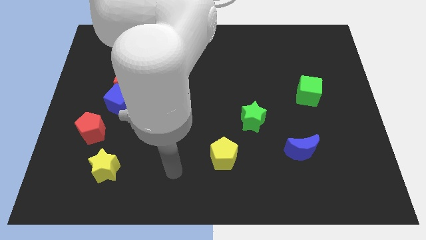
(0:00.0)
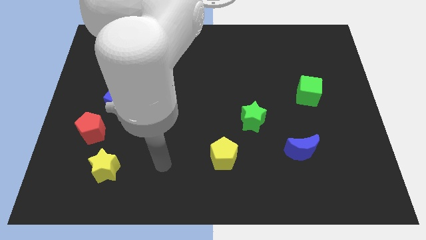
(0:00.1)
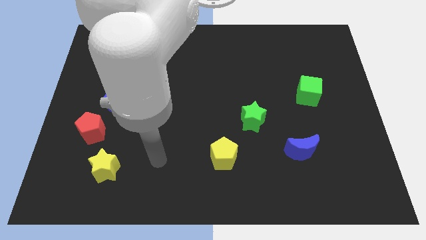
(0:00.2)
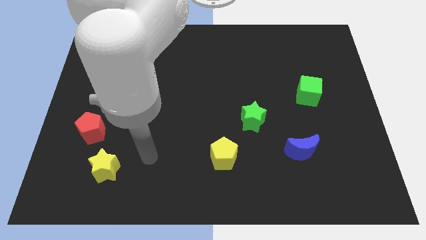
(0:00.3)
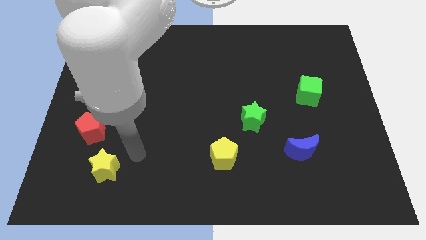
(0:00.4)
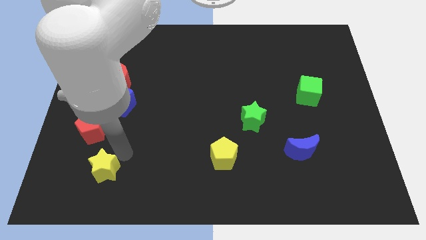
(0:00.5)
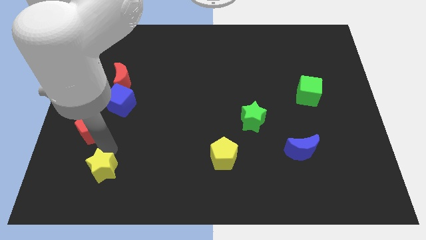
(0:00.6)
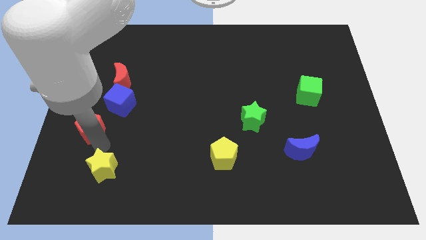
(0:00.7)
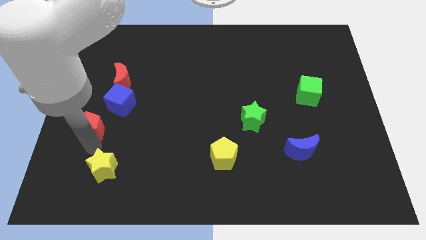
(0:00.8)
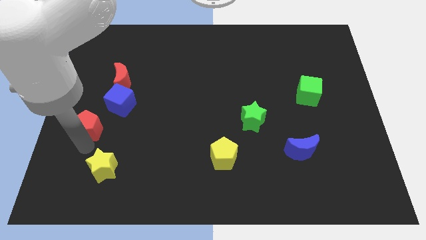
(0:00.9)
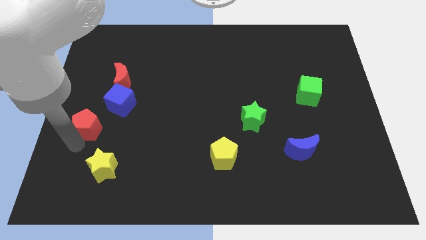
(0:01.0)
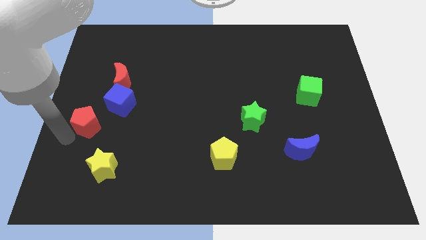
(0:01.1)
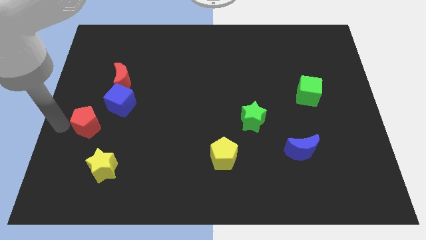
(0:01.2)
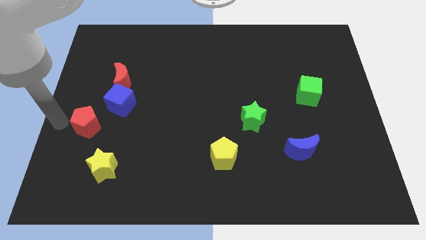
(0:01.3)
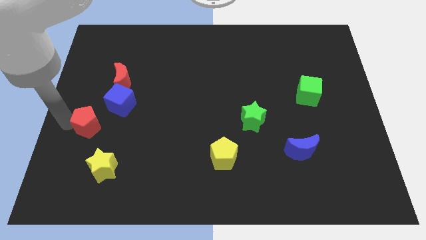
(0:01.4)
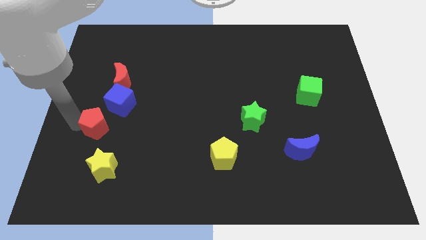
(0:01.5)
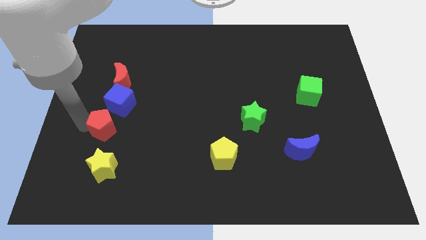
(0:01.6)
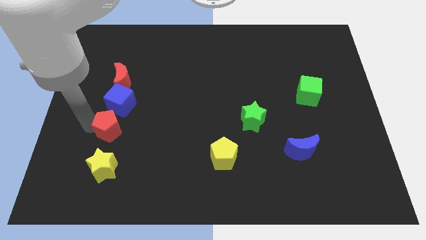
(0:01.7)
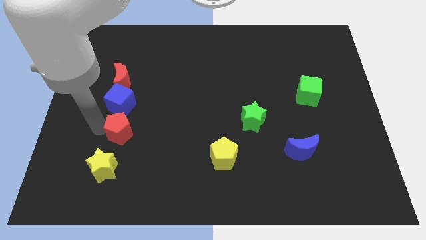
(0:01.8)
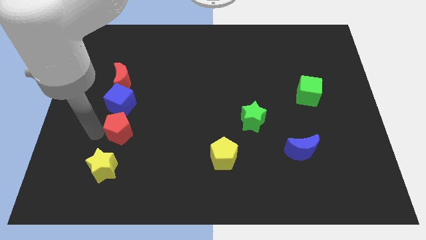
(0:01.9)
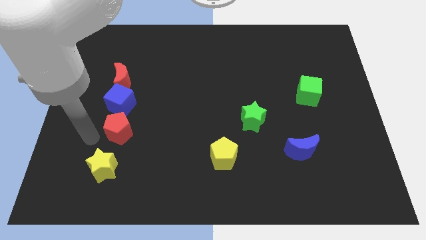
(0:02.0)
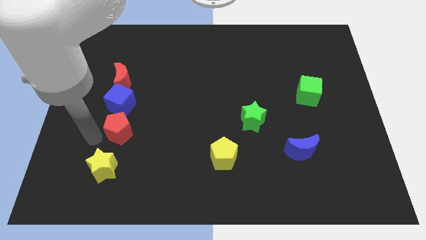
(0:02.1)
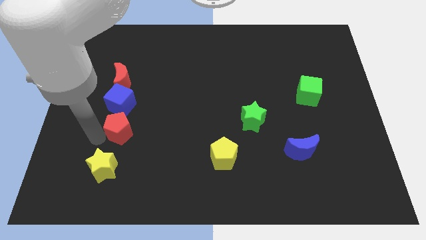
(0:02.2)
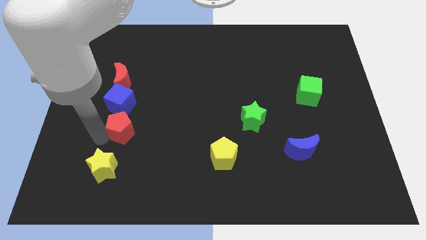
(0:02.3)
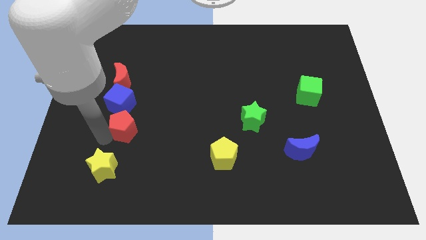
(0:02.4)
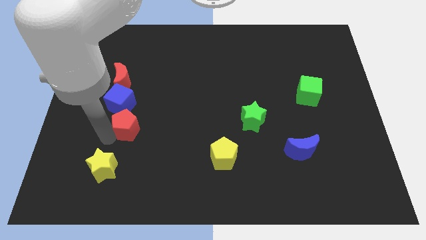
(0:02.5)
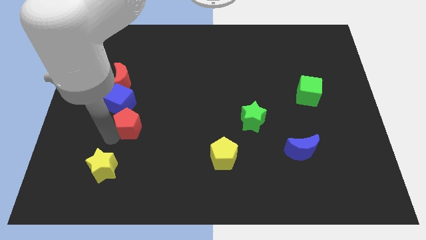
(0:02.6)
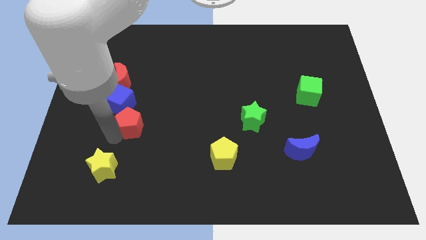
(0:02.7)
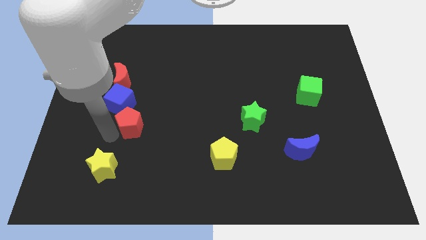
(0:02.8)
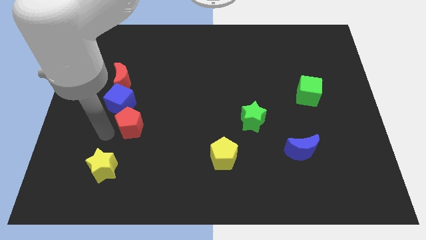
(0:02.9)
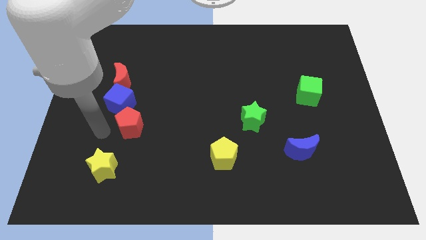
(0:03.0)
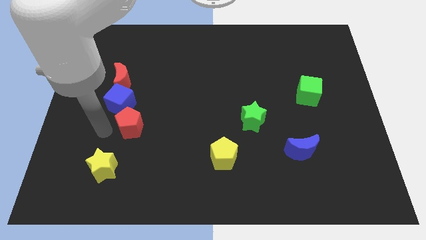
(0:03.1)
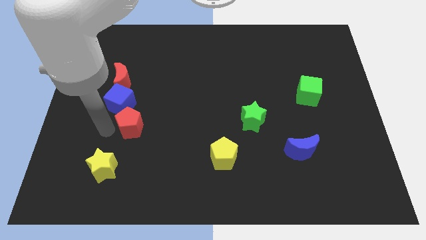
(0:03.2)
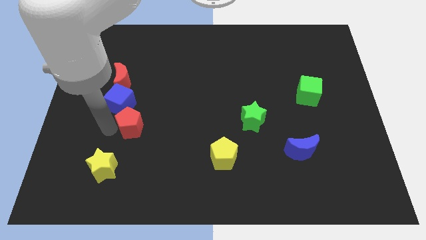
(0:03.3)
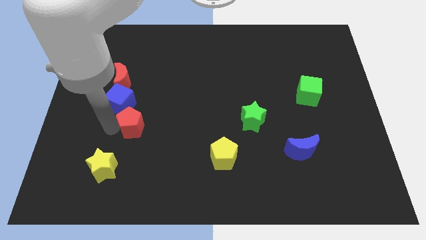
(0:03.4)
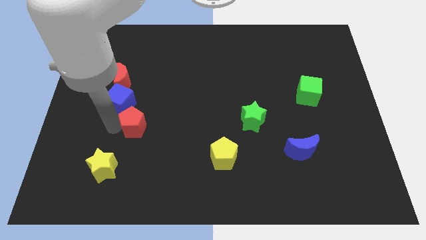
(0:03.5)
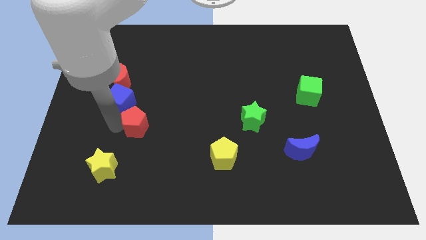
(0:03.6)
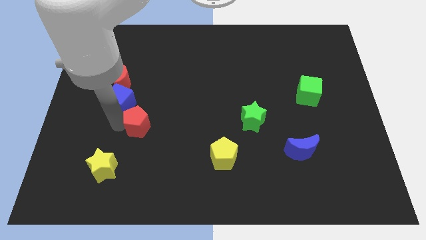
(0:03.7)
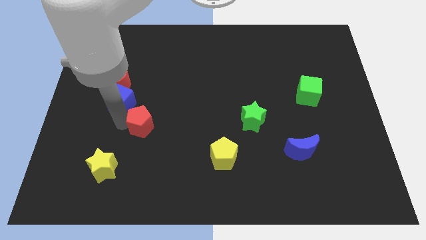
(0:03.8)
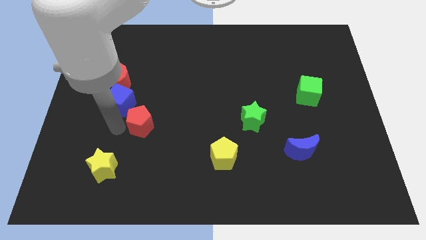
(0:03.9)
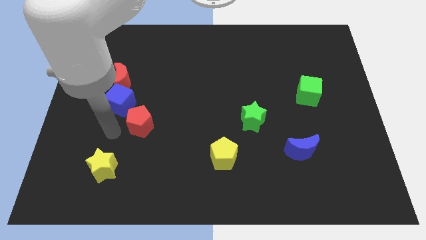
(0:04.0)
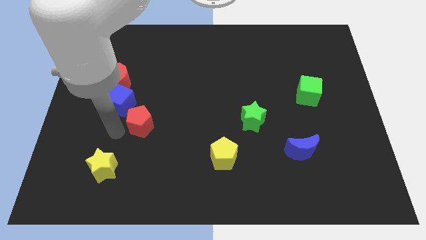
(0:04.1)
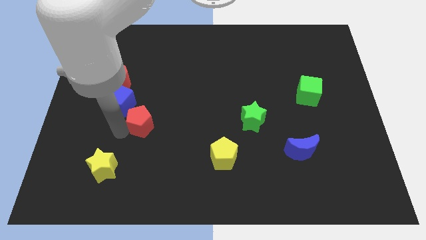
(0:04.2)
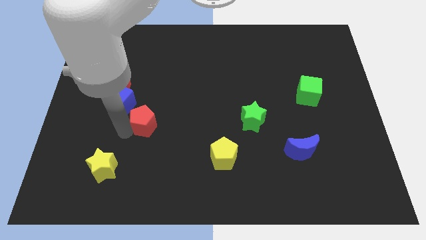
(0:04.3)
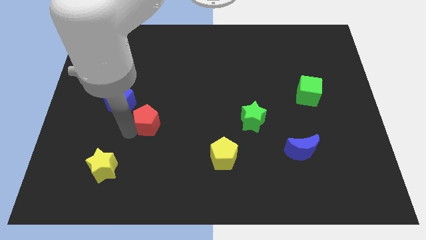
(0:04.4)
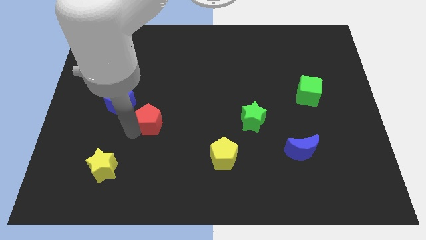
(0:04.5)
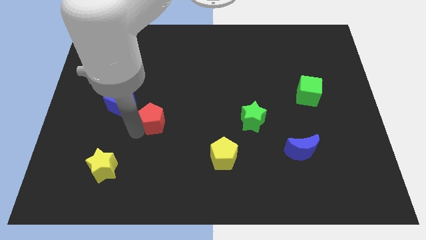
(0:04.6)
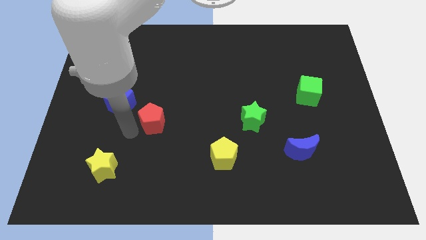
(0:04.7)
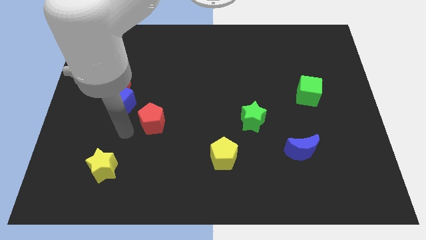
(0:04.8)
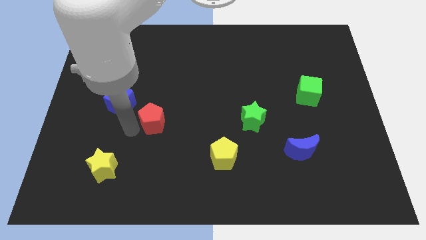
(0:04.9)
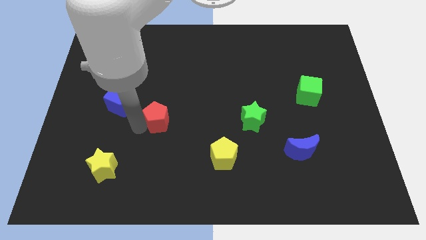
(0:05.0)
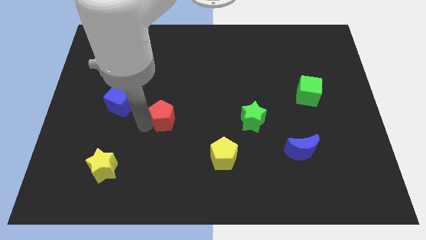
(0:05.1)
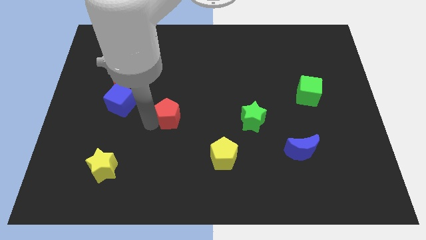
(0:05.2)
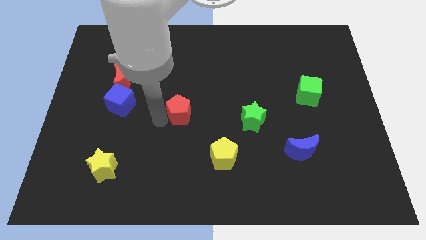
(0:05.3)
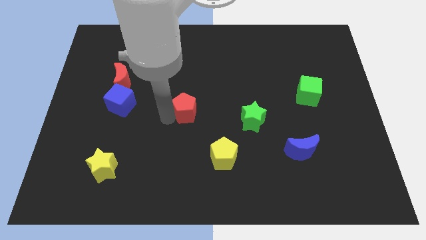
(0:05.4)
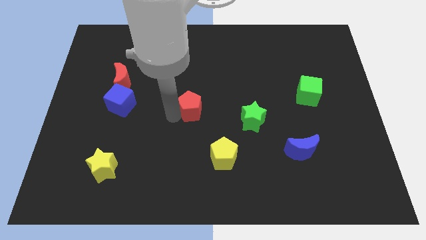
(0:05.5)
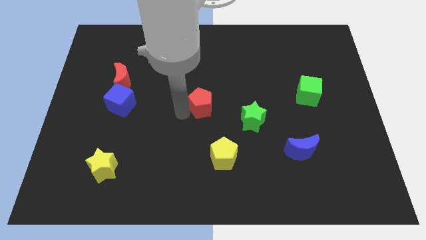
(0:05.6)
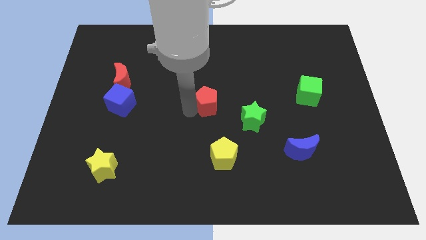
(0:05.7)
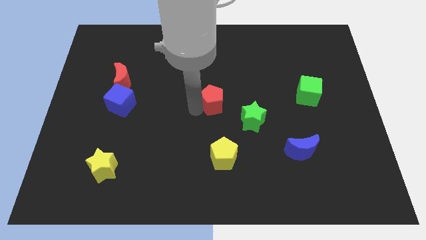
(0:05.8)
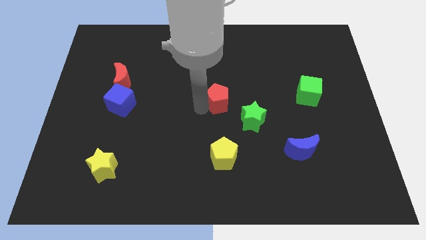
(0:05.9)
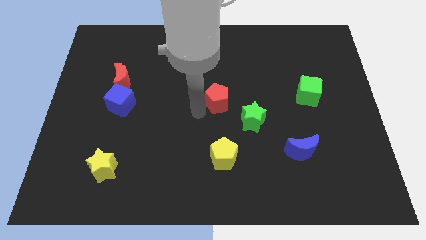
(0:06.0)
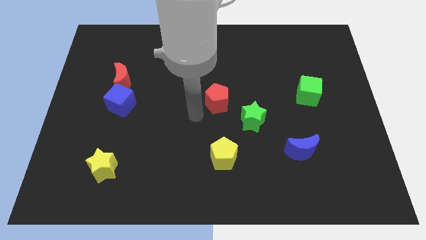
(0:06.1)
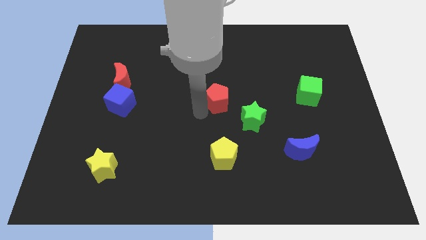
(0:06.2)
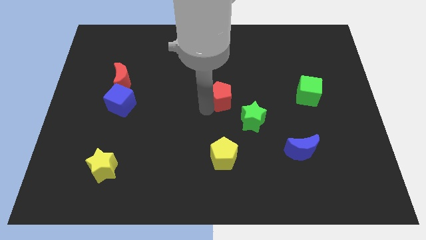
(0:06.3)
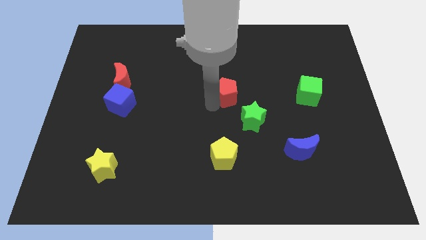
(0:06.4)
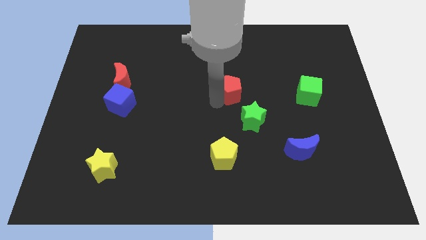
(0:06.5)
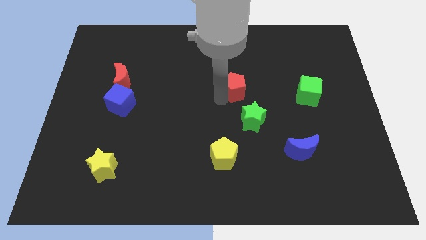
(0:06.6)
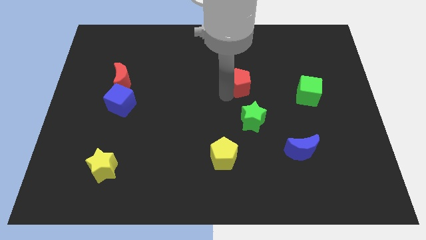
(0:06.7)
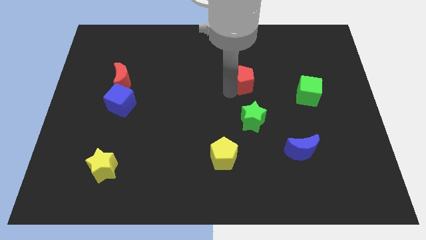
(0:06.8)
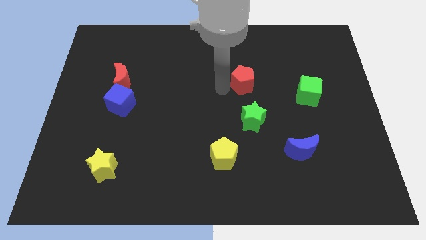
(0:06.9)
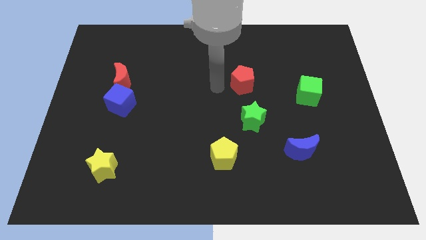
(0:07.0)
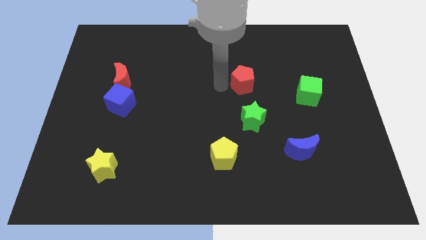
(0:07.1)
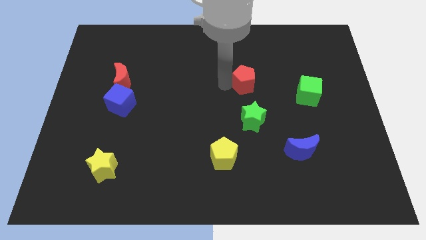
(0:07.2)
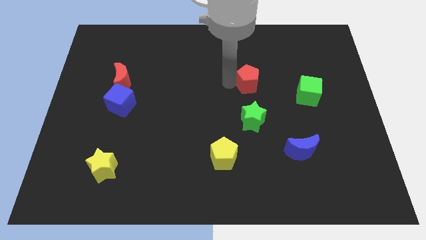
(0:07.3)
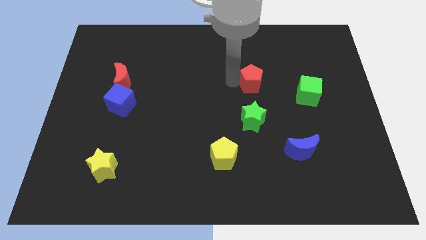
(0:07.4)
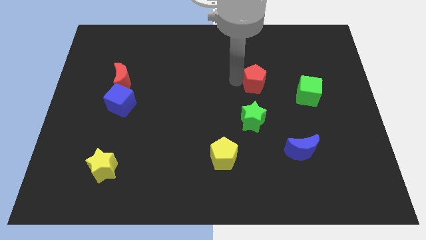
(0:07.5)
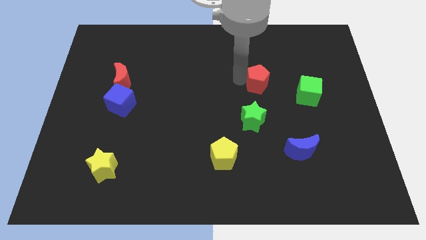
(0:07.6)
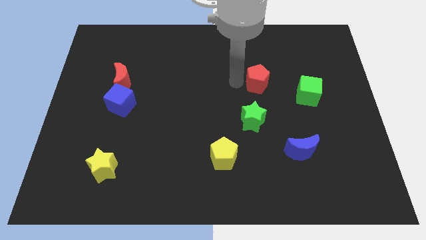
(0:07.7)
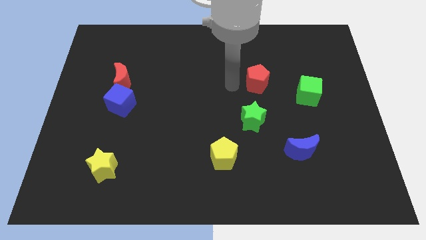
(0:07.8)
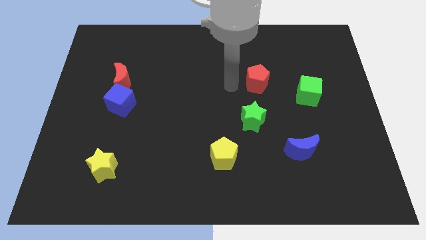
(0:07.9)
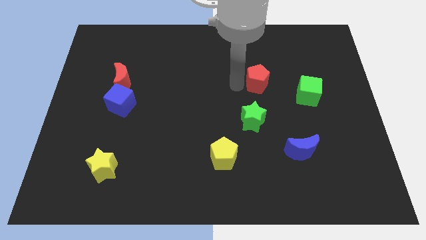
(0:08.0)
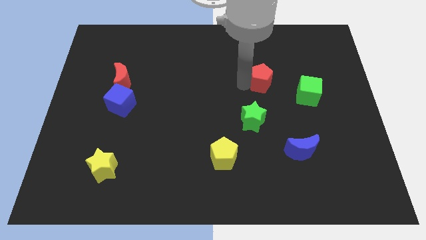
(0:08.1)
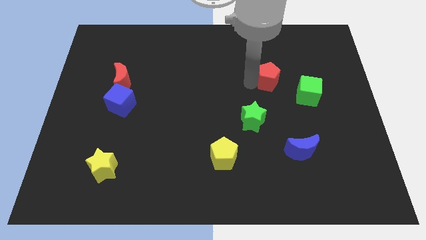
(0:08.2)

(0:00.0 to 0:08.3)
slide the red pentagon to the top left of the green cube
